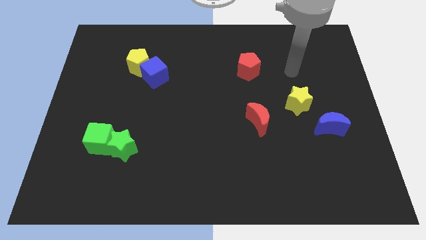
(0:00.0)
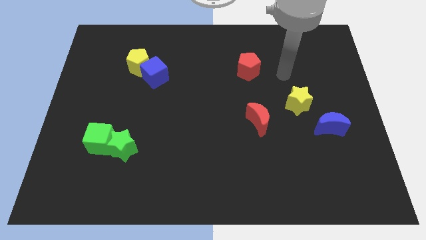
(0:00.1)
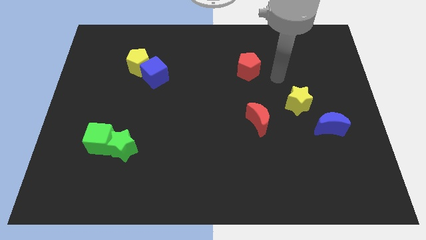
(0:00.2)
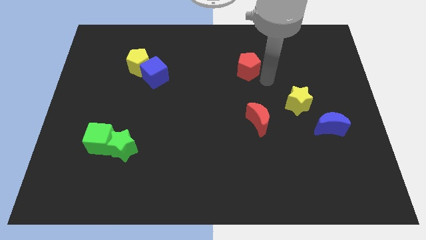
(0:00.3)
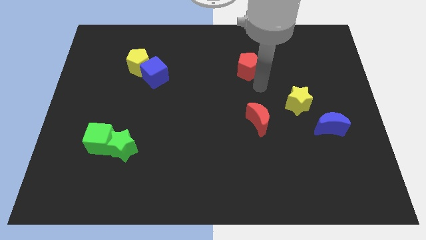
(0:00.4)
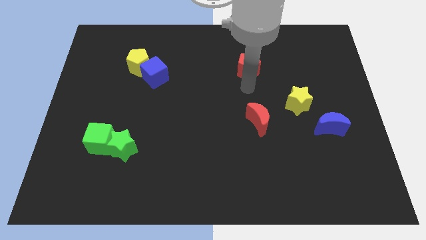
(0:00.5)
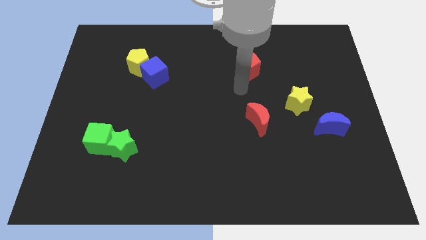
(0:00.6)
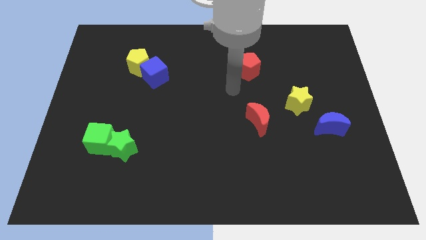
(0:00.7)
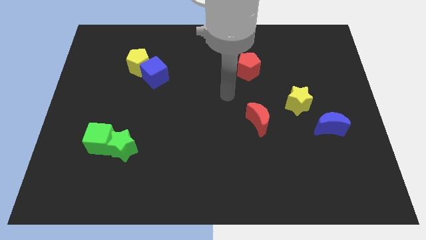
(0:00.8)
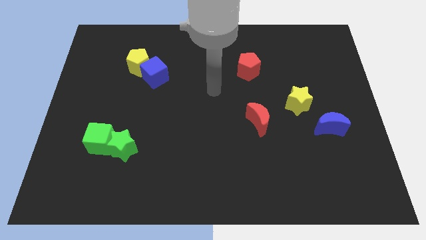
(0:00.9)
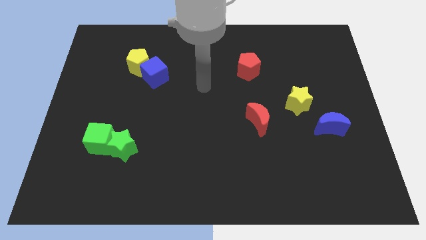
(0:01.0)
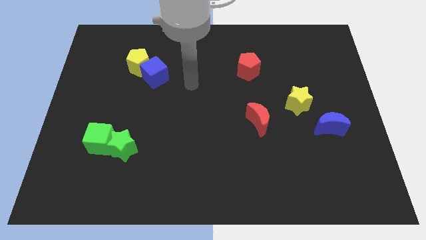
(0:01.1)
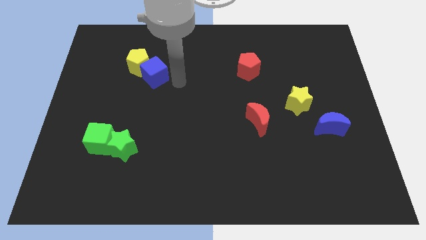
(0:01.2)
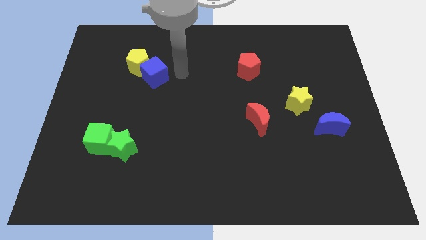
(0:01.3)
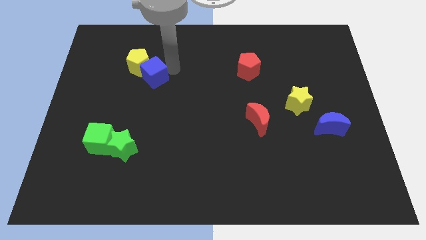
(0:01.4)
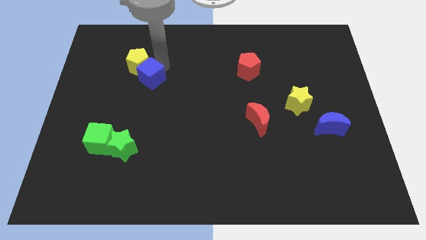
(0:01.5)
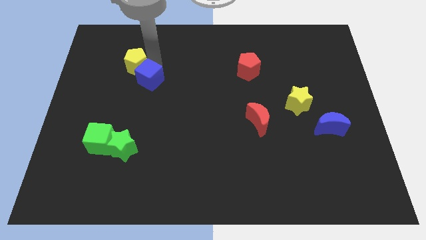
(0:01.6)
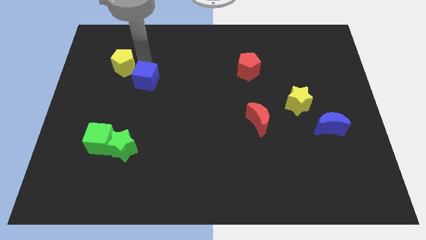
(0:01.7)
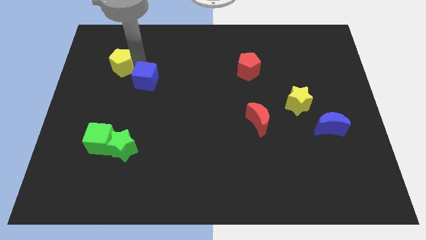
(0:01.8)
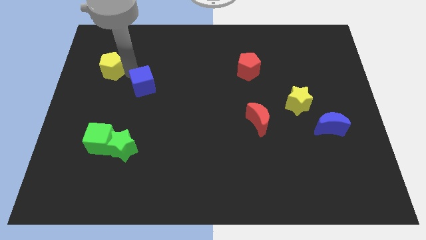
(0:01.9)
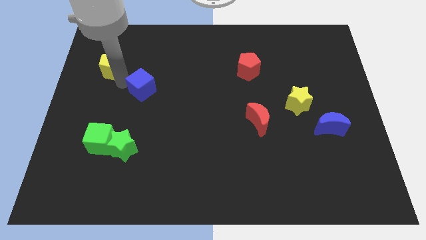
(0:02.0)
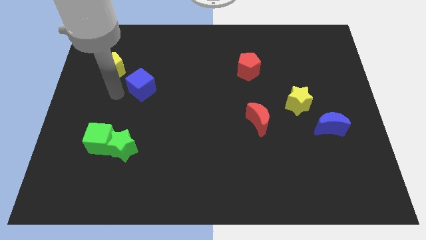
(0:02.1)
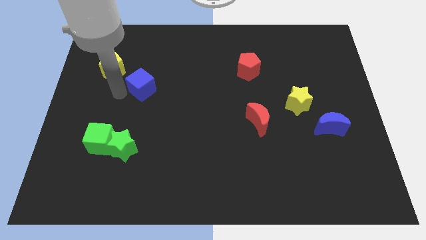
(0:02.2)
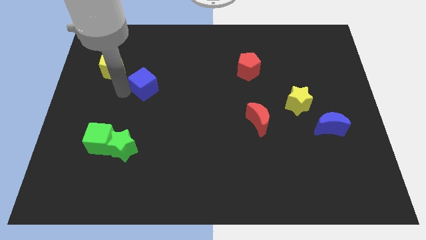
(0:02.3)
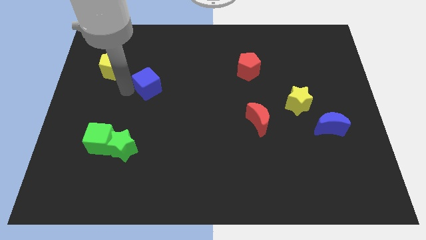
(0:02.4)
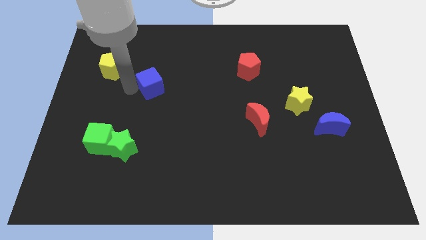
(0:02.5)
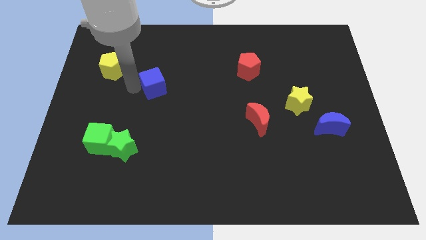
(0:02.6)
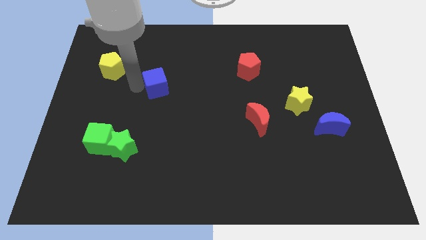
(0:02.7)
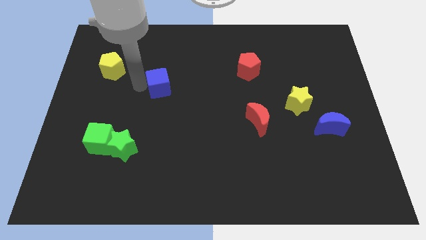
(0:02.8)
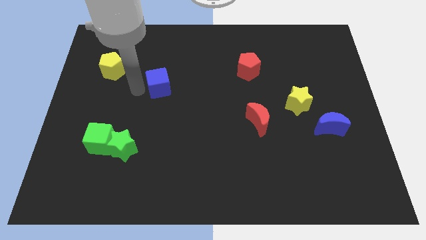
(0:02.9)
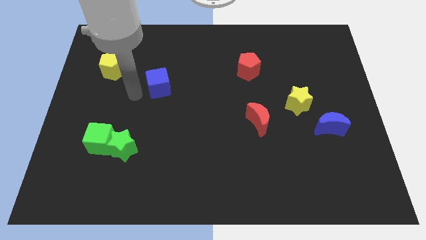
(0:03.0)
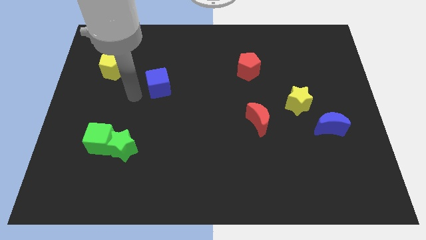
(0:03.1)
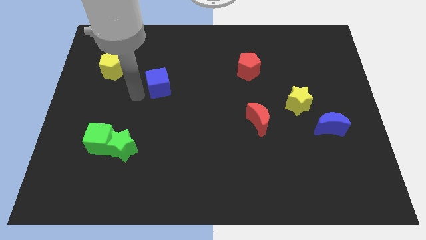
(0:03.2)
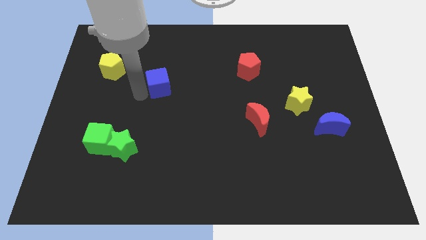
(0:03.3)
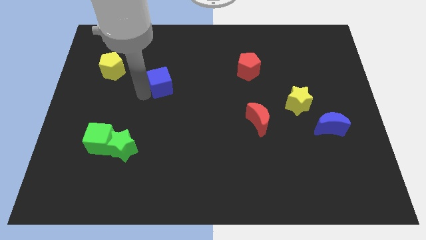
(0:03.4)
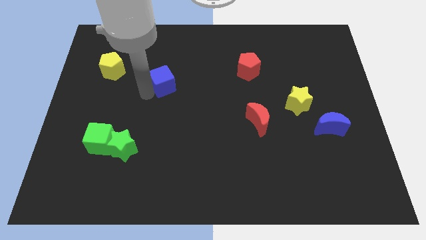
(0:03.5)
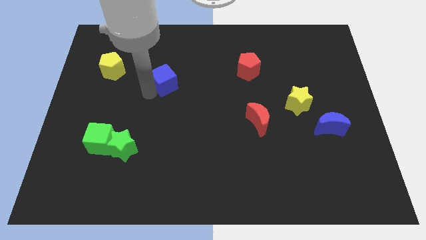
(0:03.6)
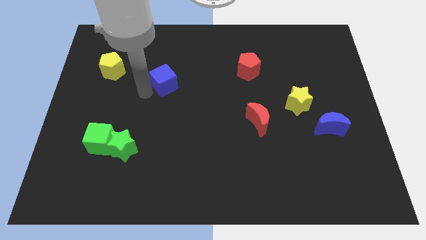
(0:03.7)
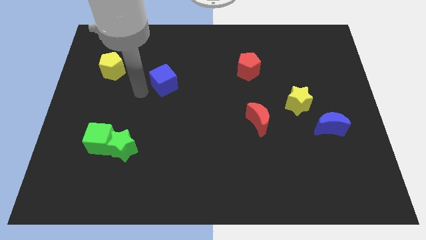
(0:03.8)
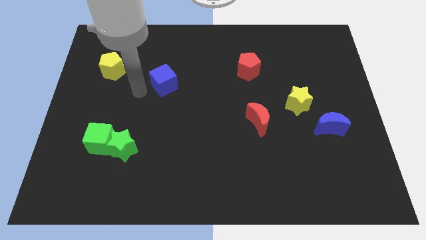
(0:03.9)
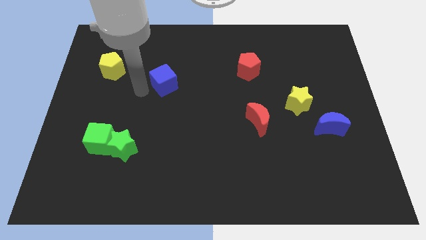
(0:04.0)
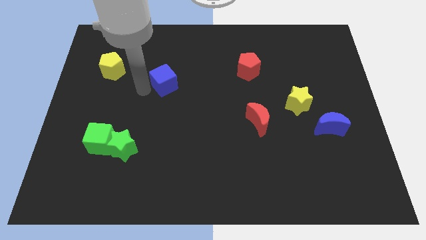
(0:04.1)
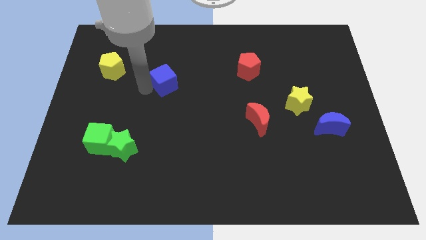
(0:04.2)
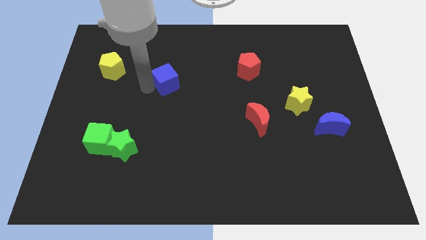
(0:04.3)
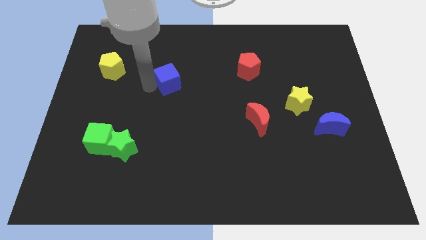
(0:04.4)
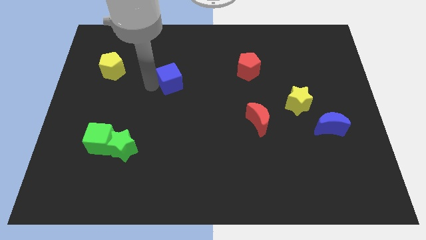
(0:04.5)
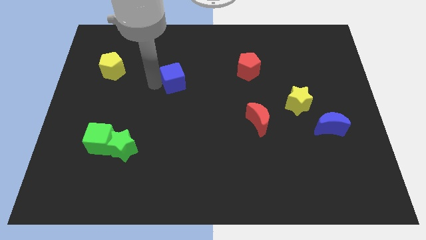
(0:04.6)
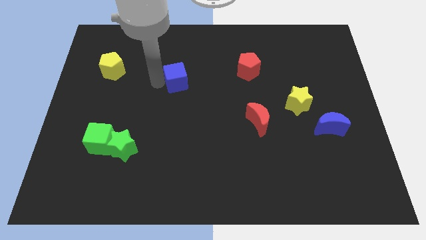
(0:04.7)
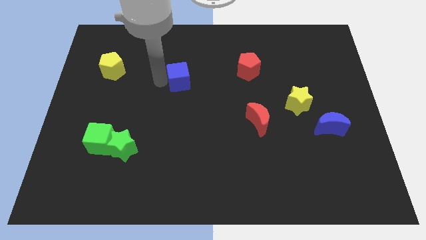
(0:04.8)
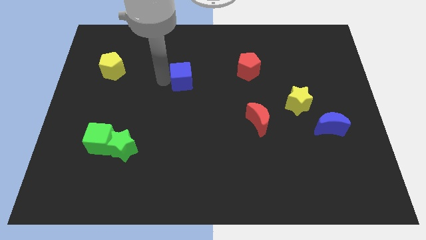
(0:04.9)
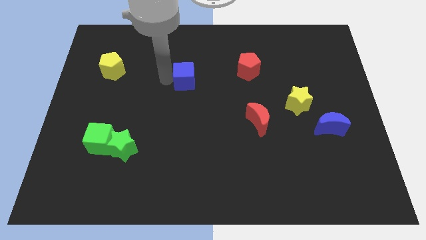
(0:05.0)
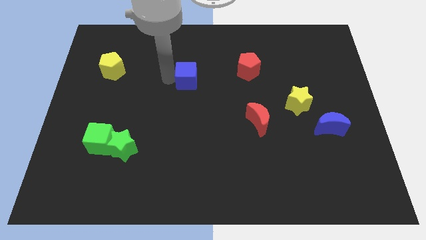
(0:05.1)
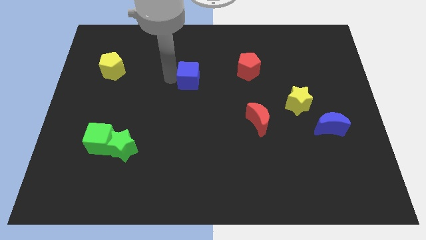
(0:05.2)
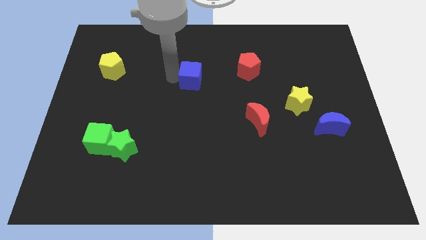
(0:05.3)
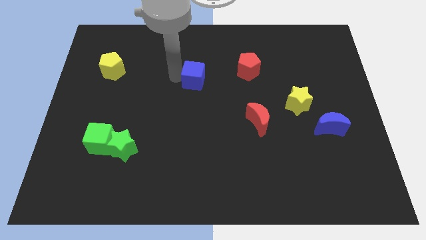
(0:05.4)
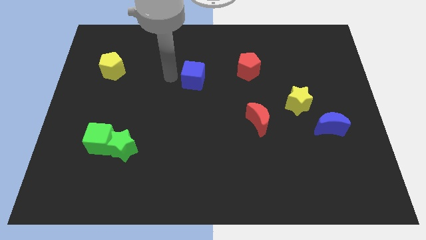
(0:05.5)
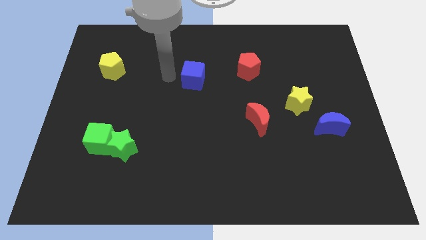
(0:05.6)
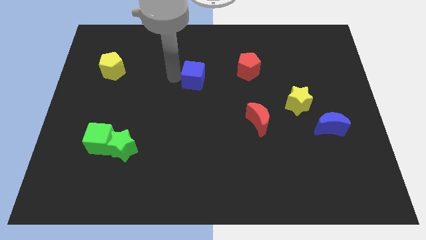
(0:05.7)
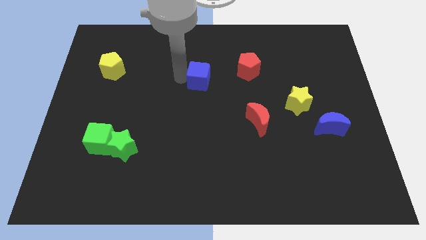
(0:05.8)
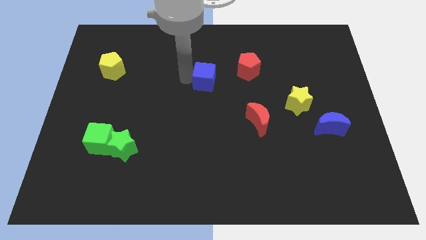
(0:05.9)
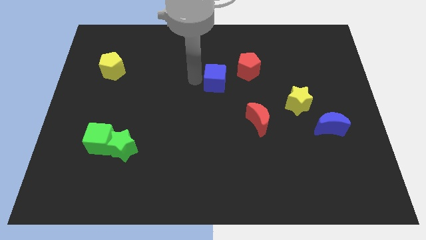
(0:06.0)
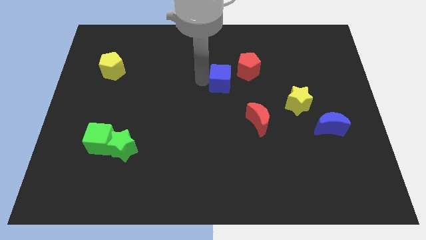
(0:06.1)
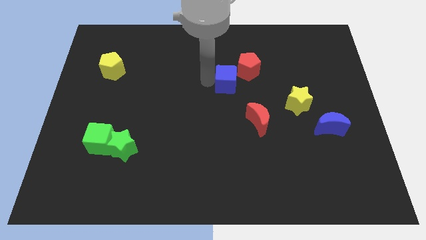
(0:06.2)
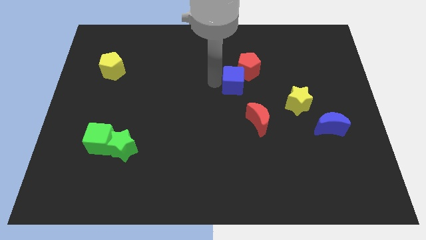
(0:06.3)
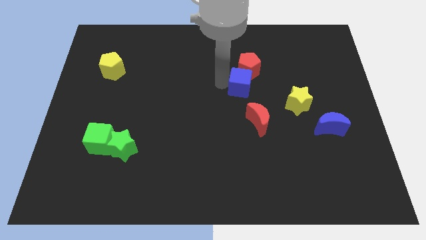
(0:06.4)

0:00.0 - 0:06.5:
push the blue cube right

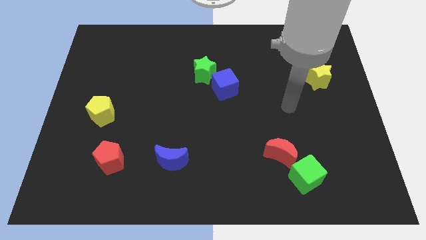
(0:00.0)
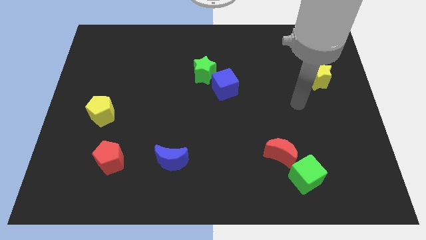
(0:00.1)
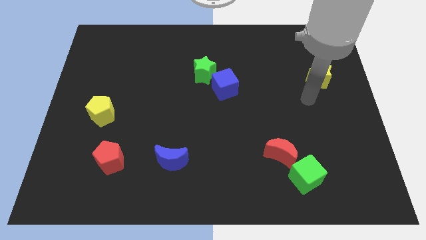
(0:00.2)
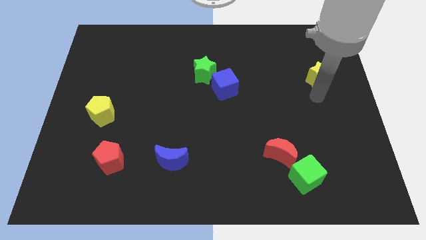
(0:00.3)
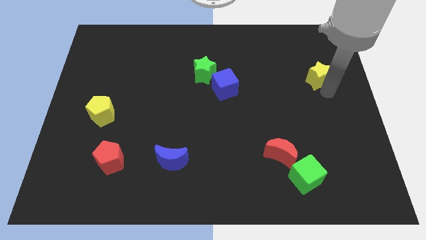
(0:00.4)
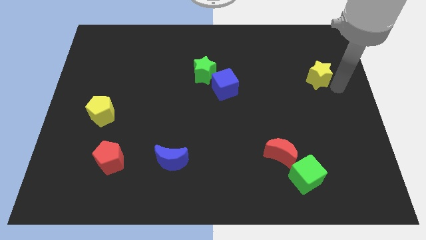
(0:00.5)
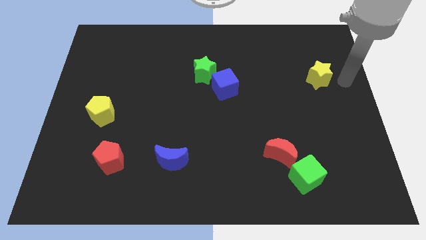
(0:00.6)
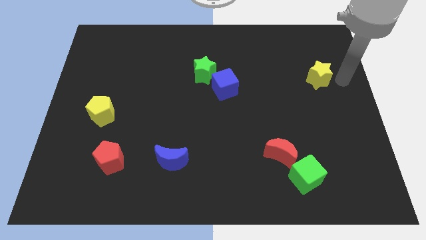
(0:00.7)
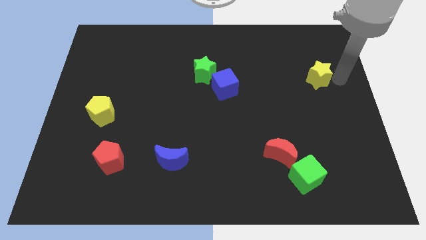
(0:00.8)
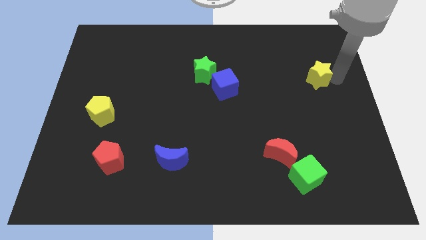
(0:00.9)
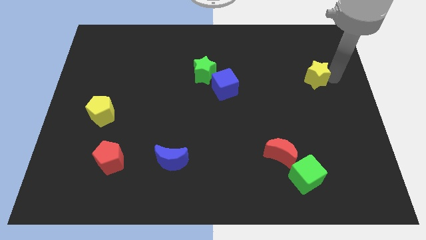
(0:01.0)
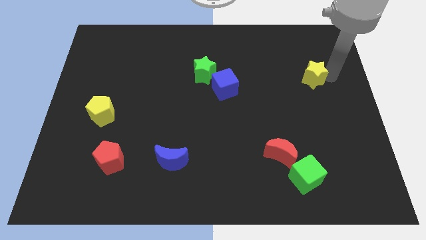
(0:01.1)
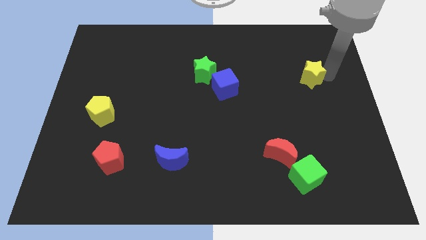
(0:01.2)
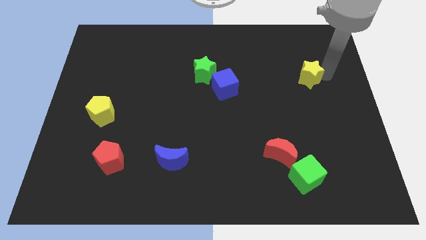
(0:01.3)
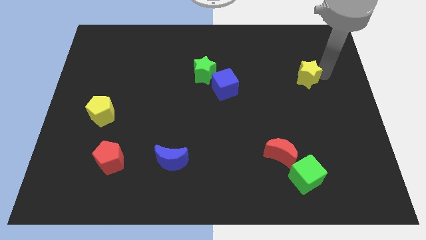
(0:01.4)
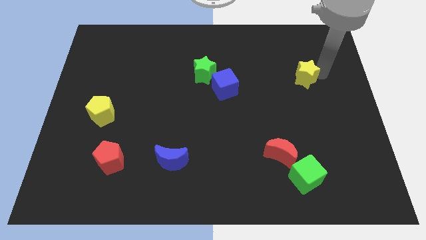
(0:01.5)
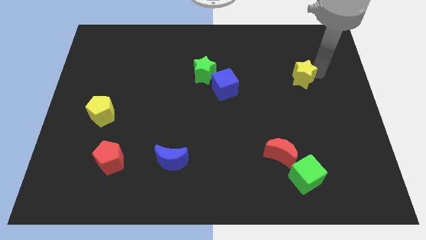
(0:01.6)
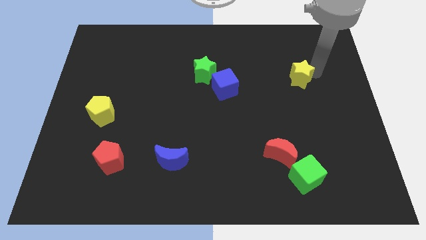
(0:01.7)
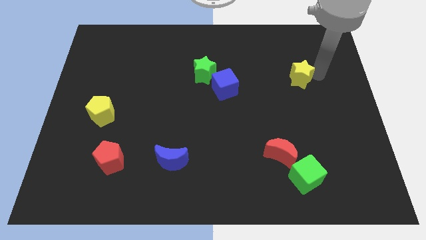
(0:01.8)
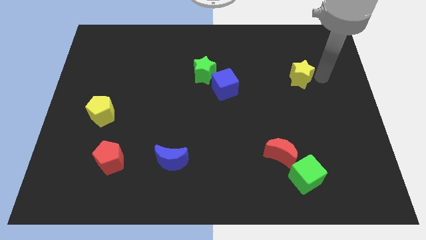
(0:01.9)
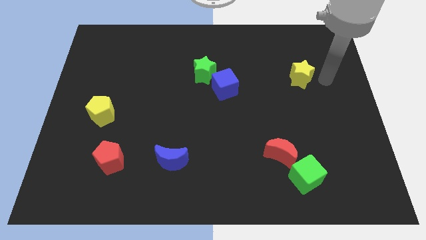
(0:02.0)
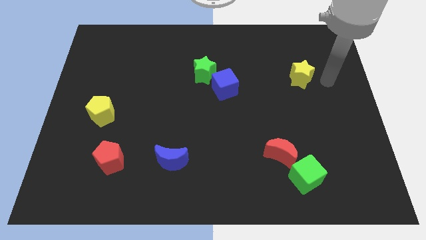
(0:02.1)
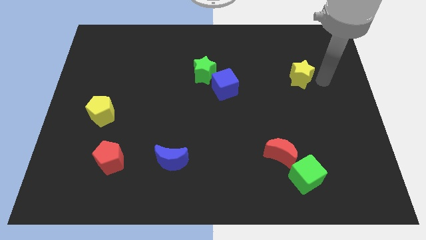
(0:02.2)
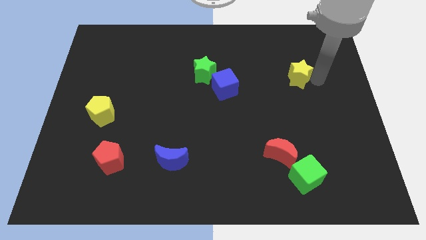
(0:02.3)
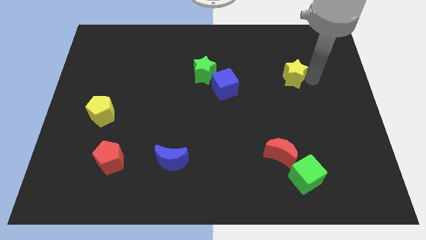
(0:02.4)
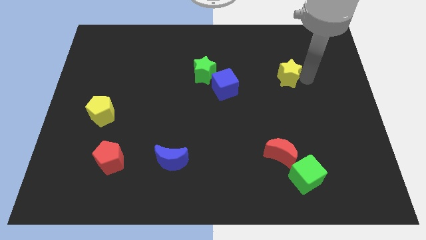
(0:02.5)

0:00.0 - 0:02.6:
move the yellow star a bit left
